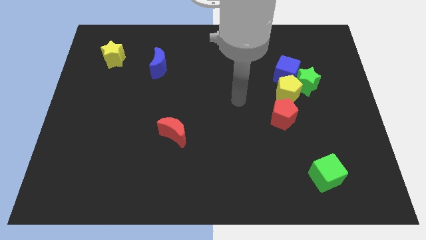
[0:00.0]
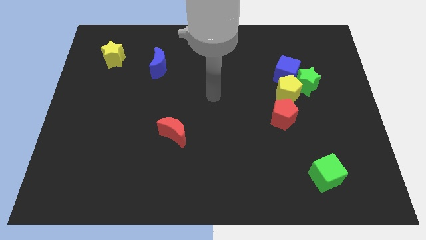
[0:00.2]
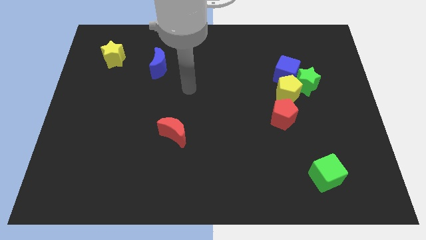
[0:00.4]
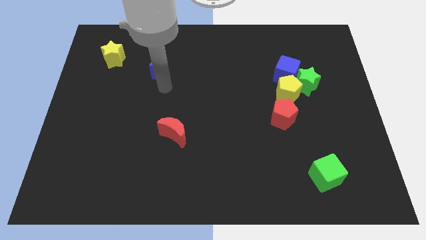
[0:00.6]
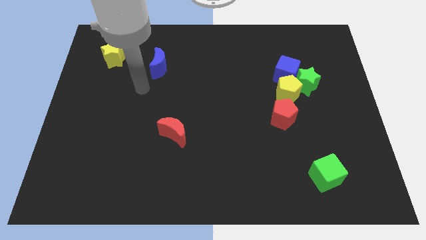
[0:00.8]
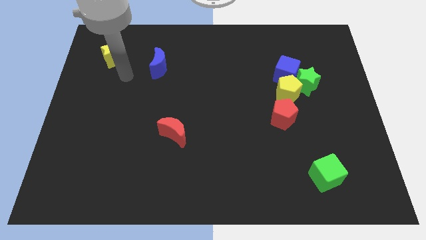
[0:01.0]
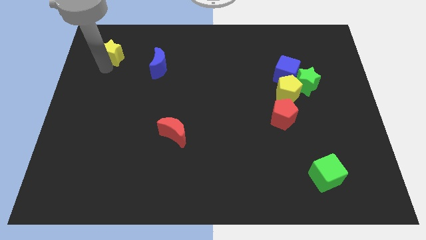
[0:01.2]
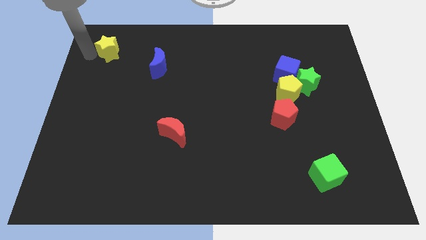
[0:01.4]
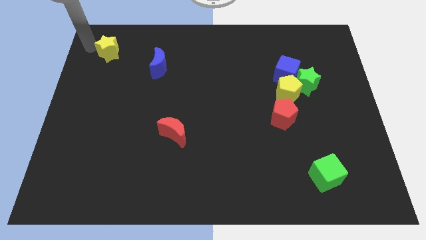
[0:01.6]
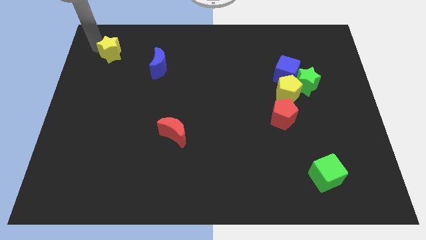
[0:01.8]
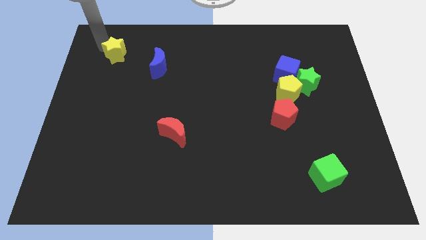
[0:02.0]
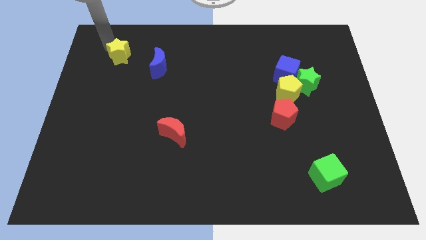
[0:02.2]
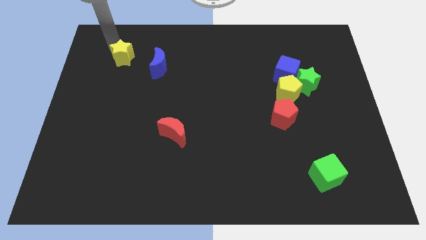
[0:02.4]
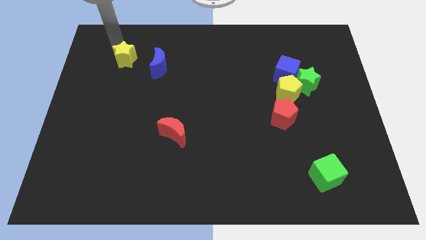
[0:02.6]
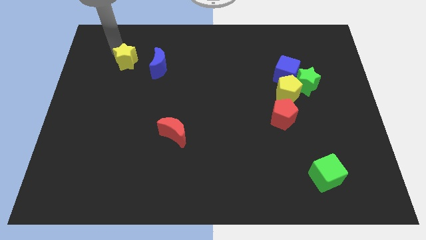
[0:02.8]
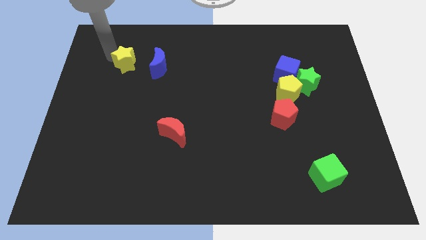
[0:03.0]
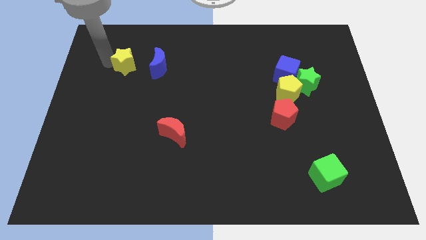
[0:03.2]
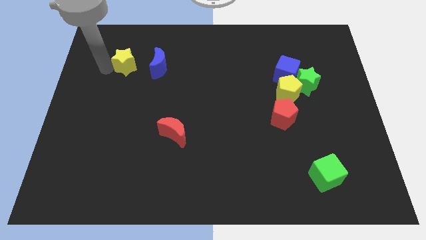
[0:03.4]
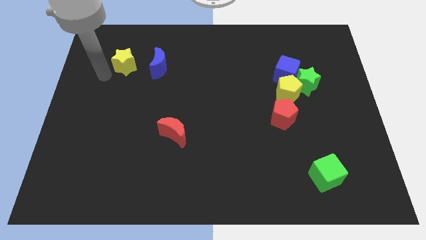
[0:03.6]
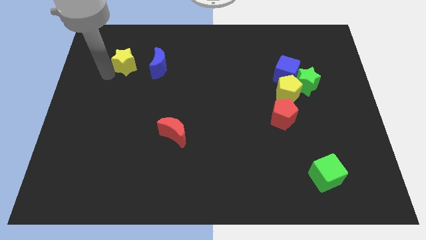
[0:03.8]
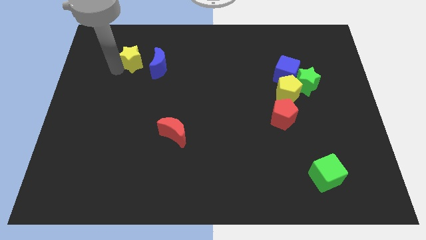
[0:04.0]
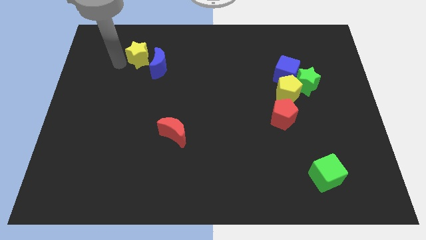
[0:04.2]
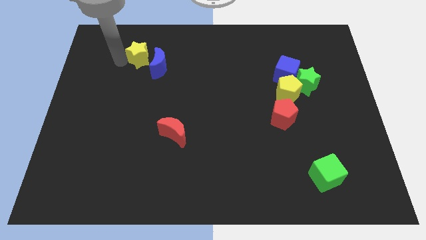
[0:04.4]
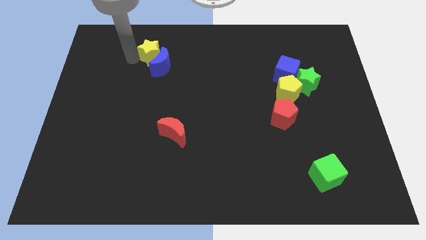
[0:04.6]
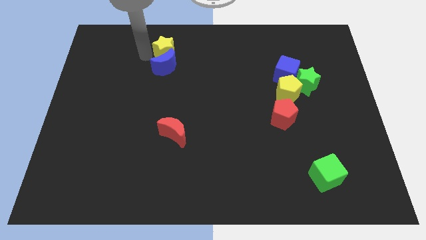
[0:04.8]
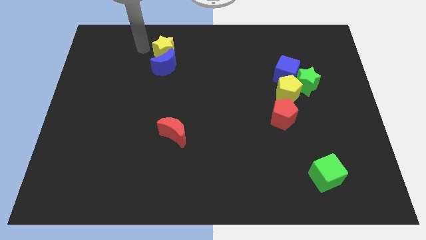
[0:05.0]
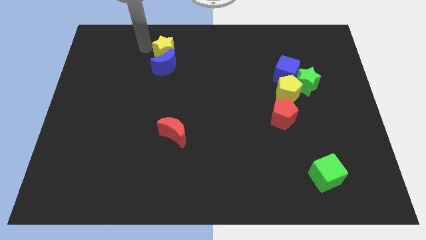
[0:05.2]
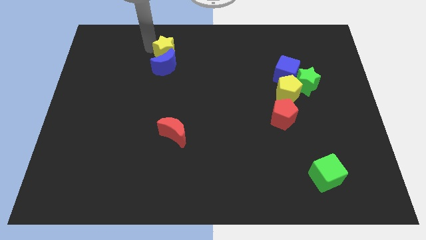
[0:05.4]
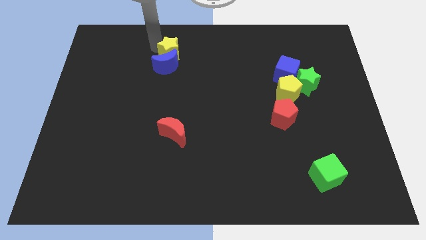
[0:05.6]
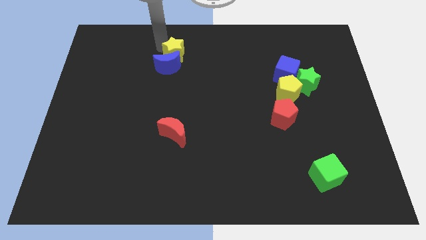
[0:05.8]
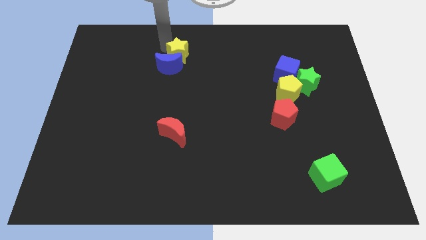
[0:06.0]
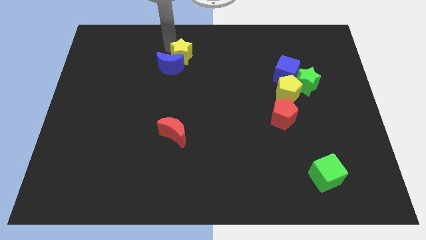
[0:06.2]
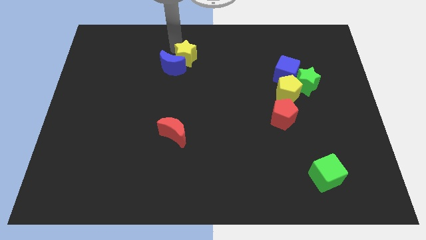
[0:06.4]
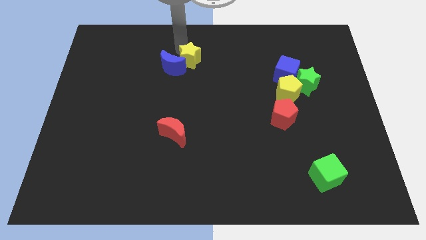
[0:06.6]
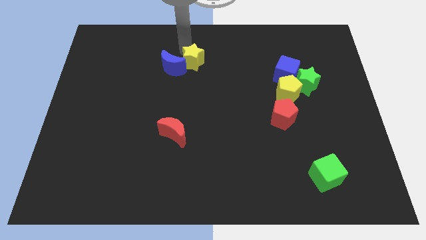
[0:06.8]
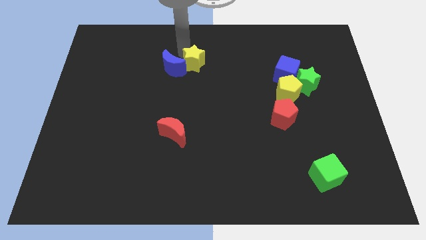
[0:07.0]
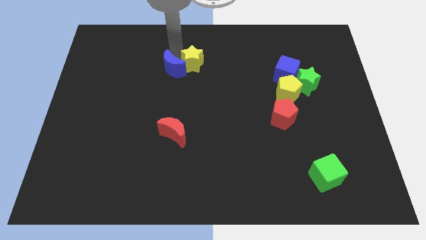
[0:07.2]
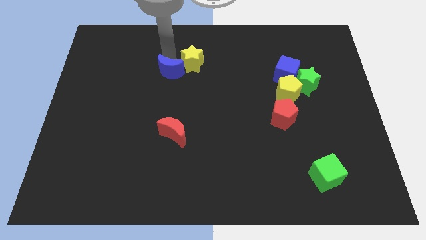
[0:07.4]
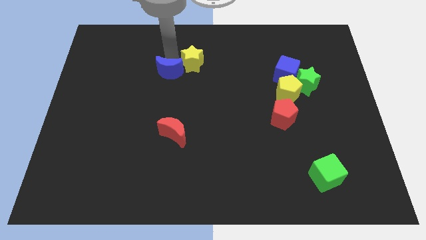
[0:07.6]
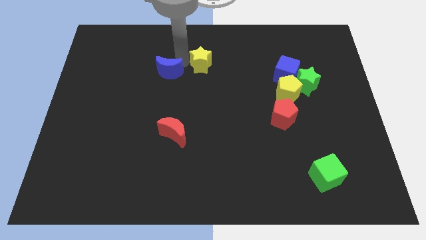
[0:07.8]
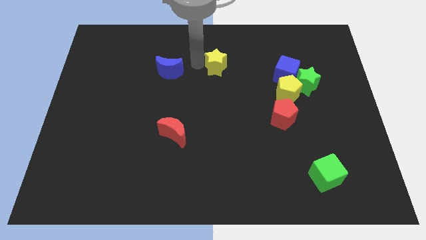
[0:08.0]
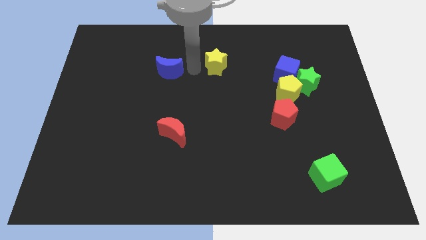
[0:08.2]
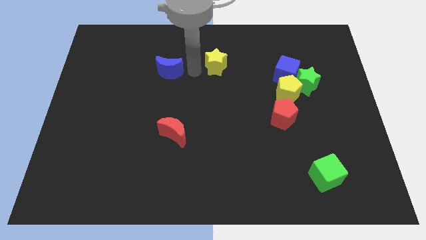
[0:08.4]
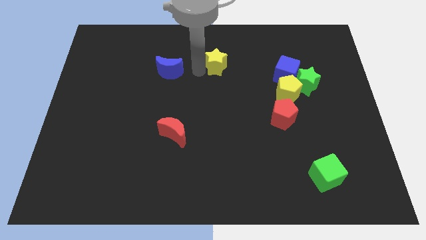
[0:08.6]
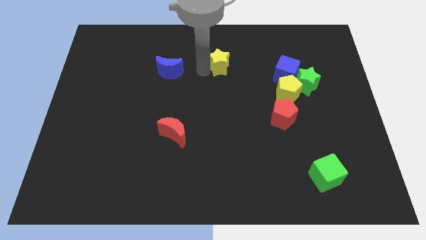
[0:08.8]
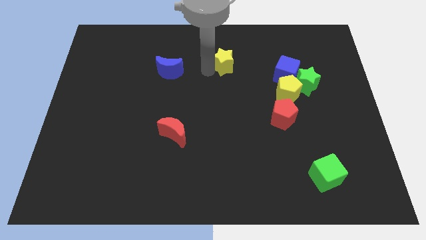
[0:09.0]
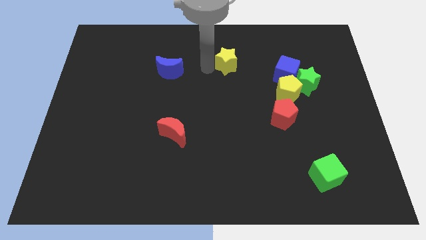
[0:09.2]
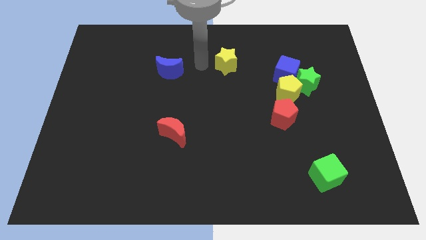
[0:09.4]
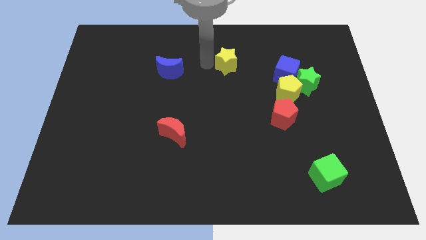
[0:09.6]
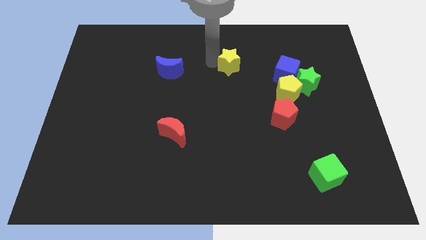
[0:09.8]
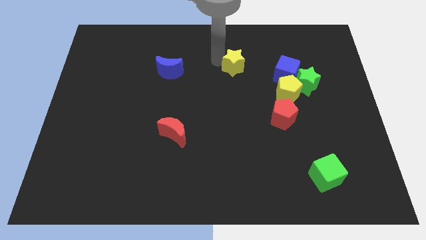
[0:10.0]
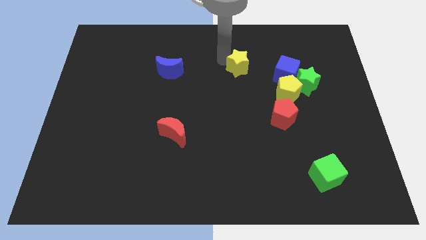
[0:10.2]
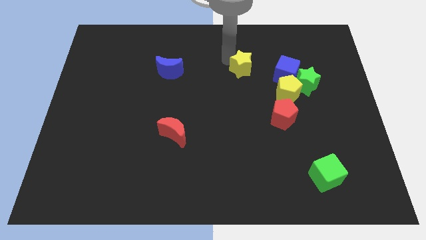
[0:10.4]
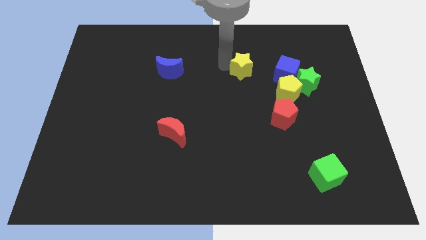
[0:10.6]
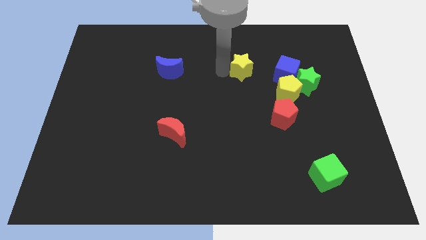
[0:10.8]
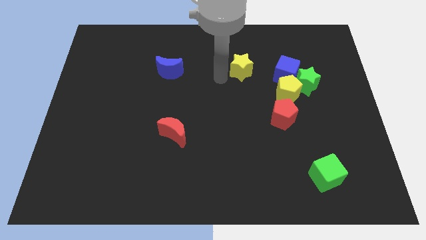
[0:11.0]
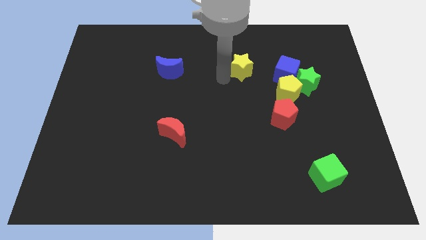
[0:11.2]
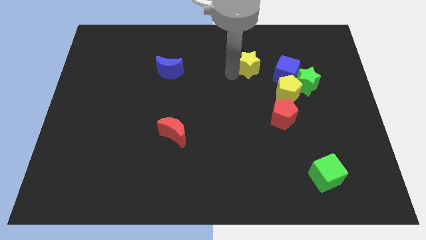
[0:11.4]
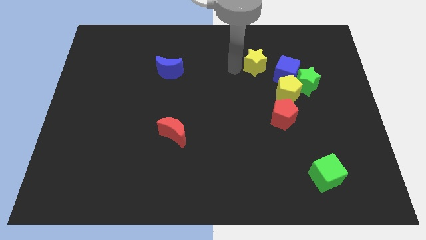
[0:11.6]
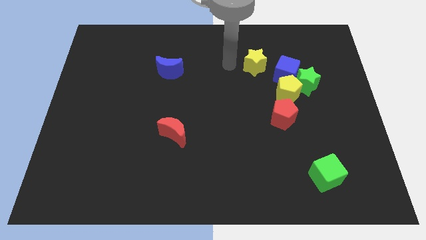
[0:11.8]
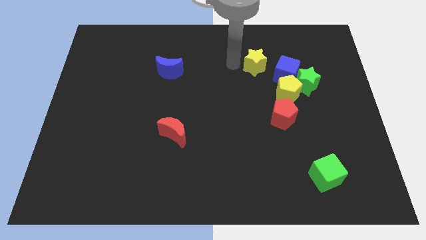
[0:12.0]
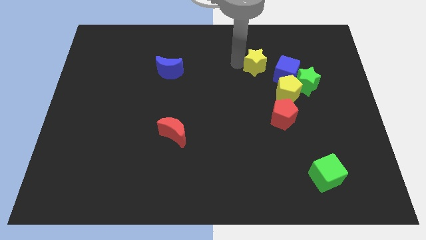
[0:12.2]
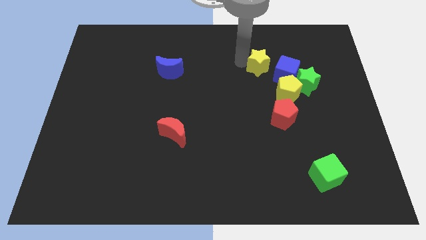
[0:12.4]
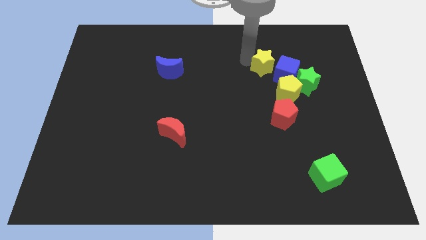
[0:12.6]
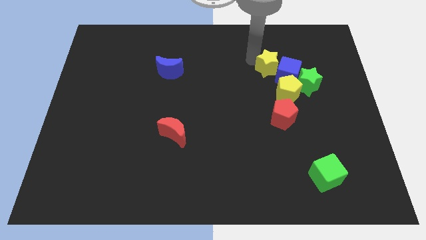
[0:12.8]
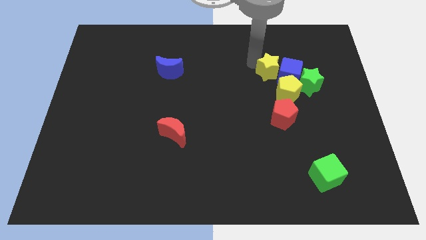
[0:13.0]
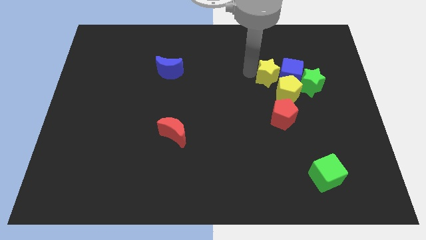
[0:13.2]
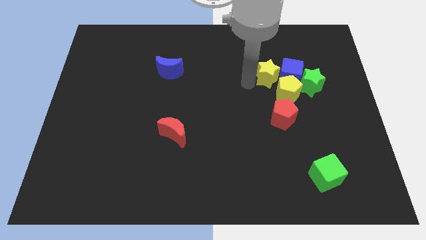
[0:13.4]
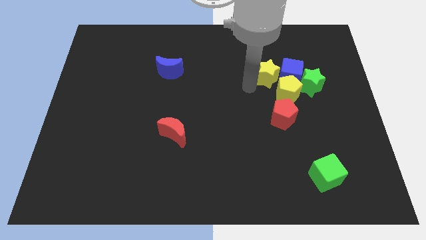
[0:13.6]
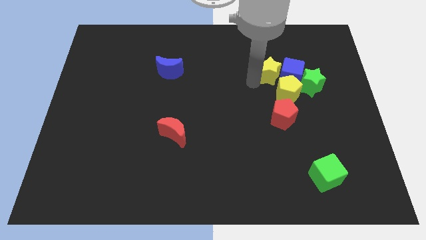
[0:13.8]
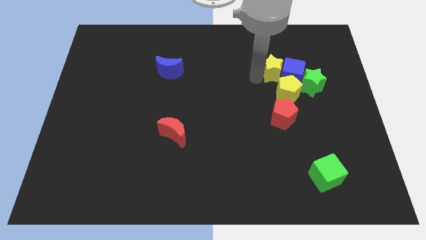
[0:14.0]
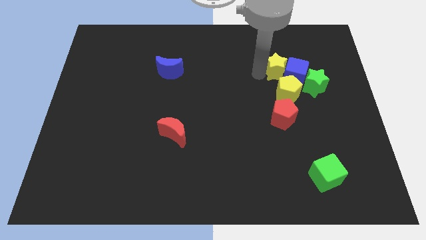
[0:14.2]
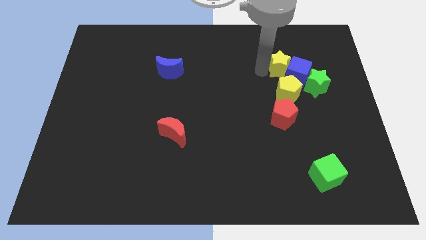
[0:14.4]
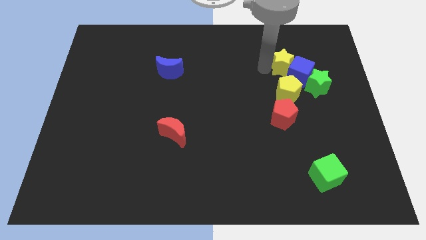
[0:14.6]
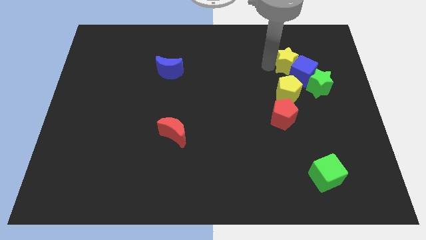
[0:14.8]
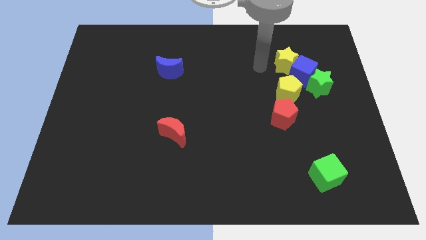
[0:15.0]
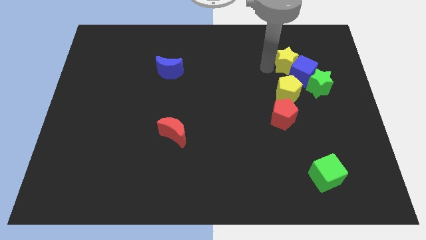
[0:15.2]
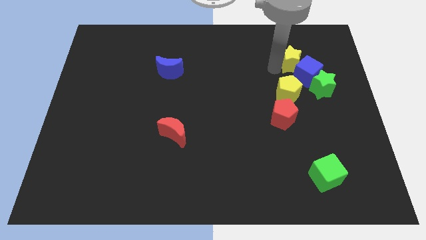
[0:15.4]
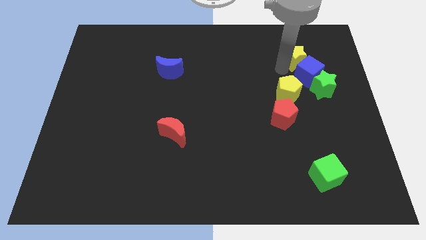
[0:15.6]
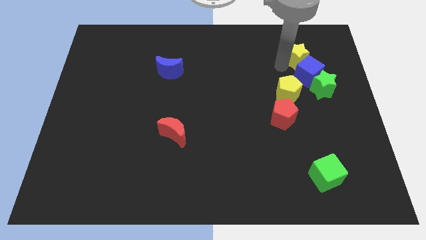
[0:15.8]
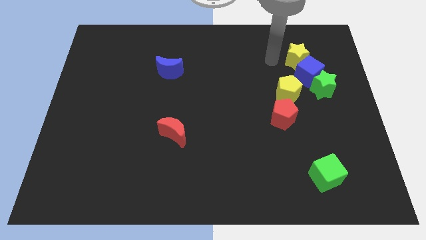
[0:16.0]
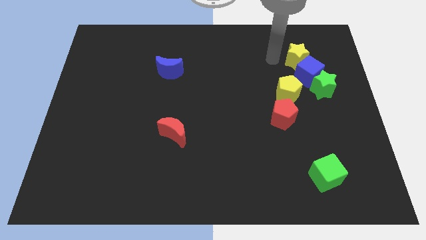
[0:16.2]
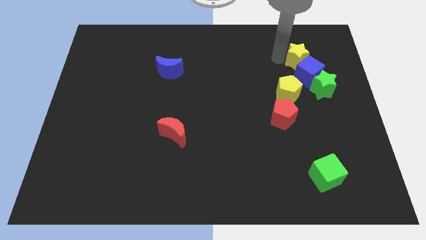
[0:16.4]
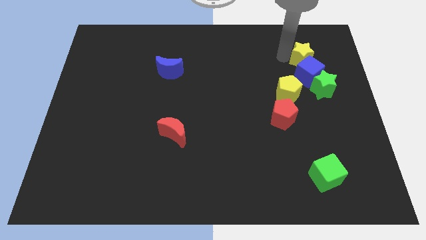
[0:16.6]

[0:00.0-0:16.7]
move the yellow star to the top right of the blue cube
